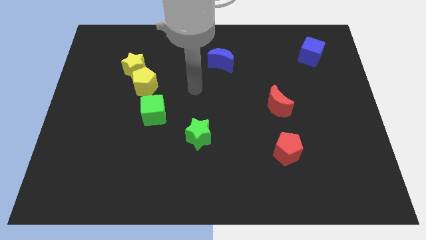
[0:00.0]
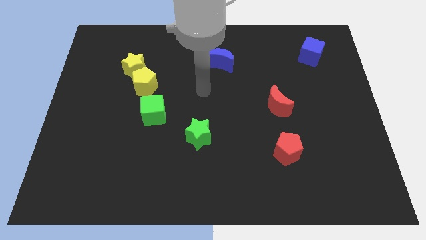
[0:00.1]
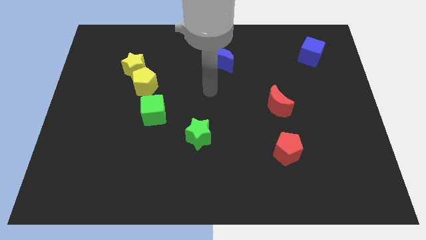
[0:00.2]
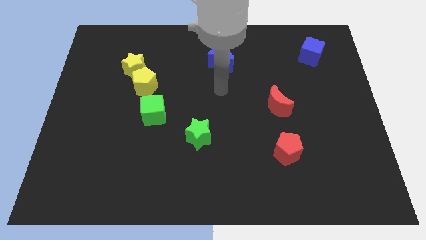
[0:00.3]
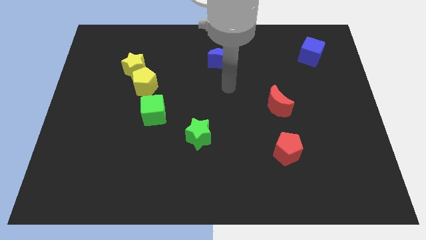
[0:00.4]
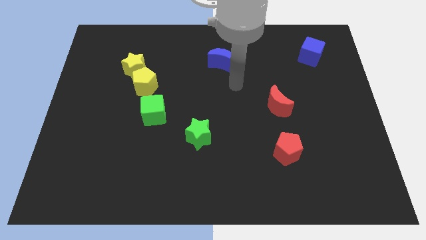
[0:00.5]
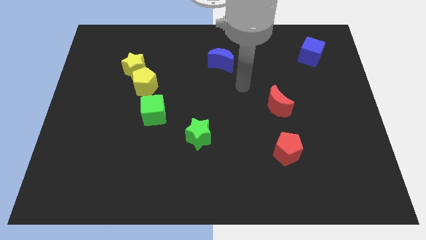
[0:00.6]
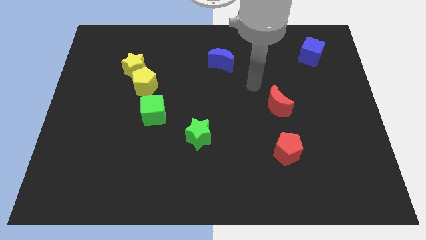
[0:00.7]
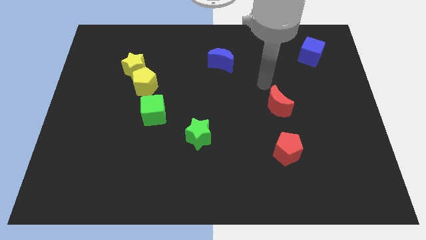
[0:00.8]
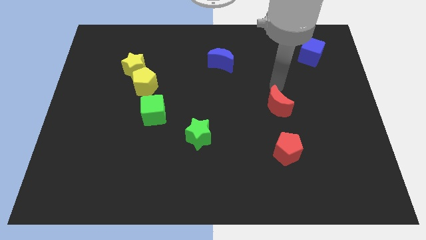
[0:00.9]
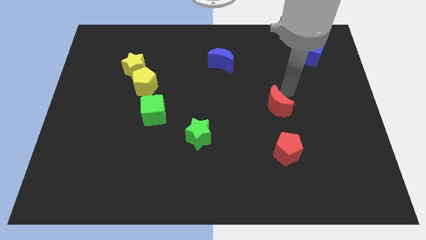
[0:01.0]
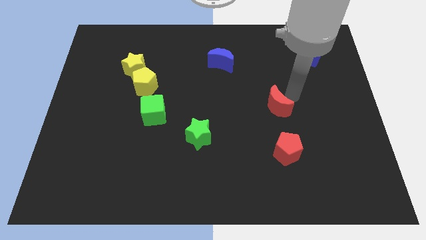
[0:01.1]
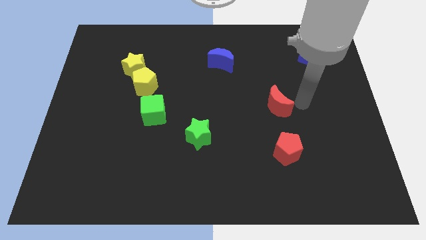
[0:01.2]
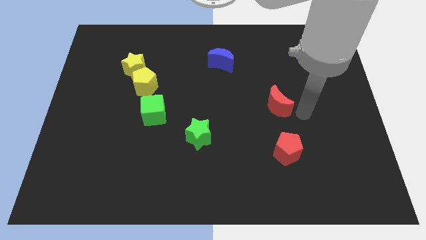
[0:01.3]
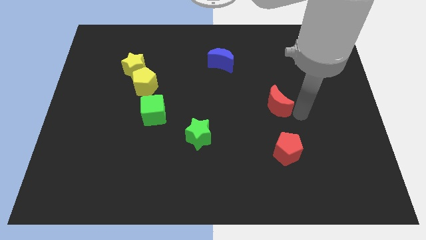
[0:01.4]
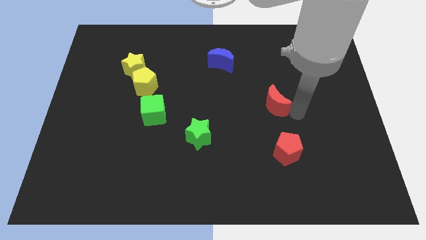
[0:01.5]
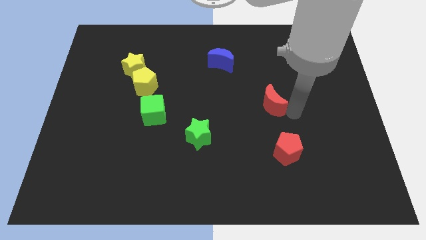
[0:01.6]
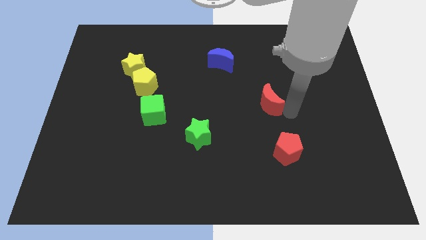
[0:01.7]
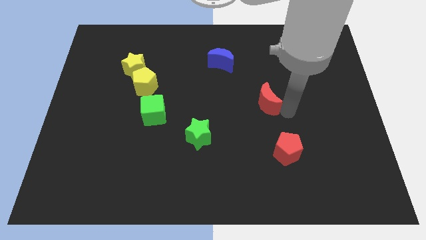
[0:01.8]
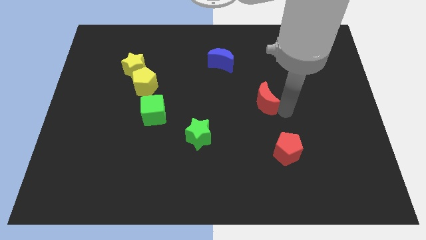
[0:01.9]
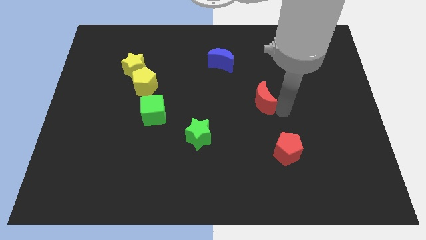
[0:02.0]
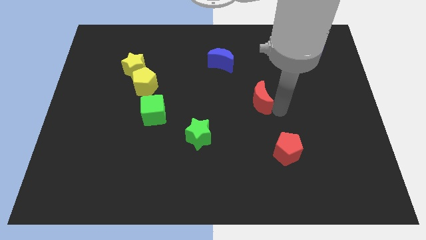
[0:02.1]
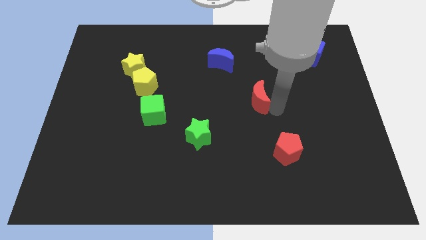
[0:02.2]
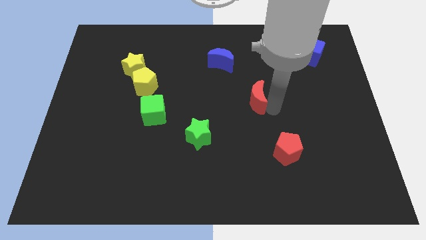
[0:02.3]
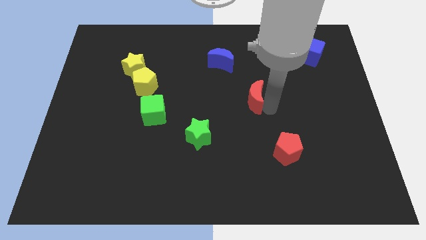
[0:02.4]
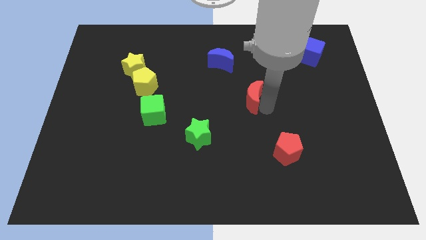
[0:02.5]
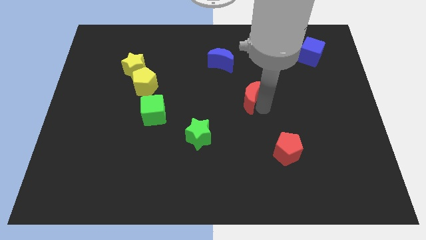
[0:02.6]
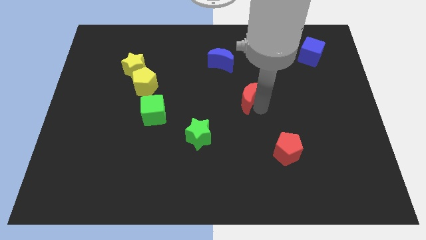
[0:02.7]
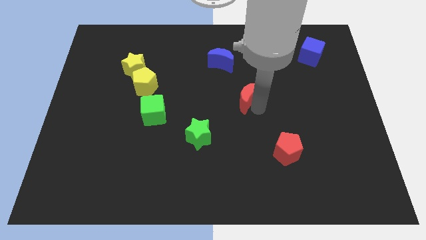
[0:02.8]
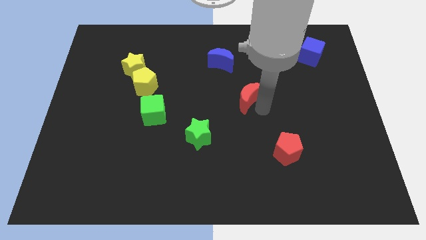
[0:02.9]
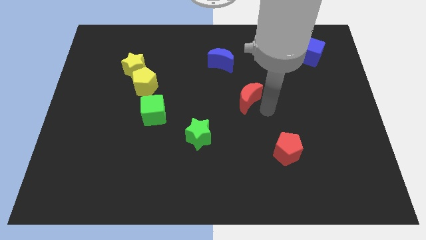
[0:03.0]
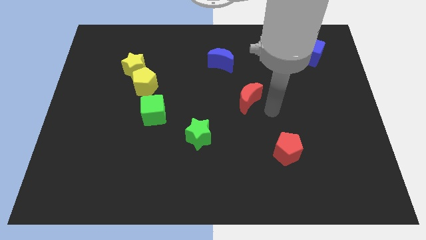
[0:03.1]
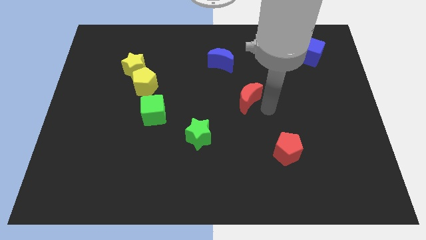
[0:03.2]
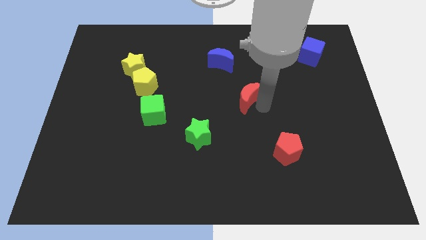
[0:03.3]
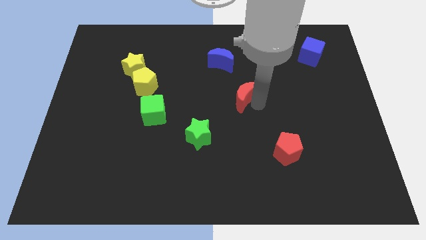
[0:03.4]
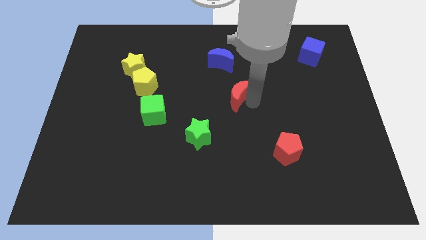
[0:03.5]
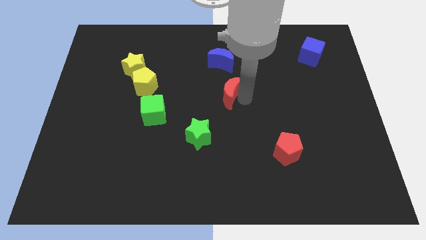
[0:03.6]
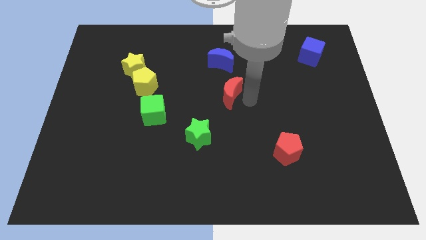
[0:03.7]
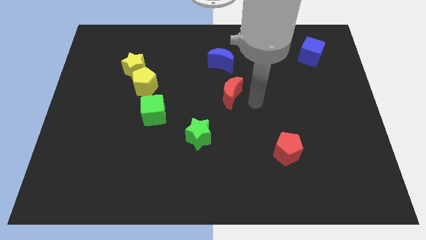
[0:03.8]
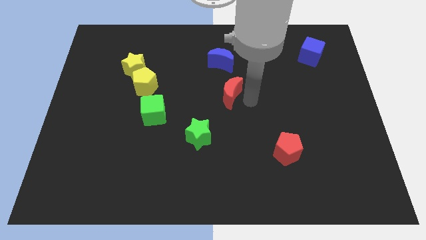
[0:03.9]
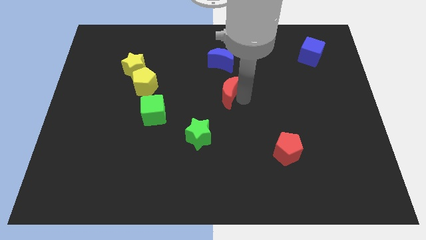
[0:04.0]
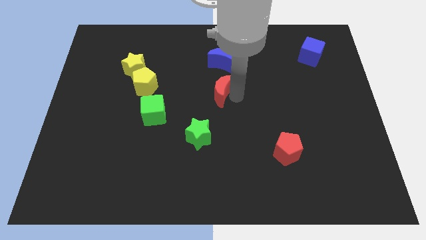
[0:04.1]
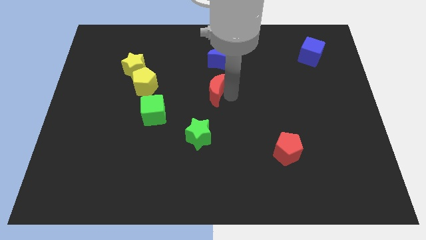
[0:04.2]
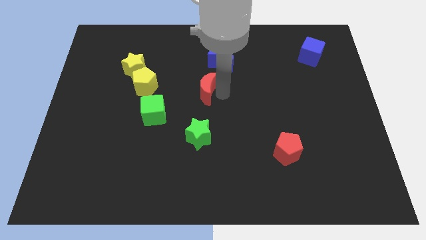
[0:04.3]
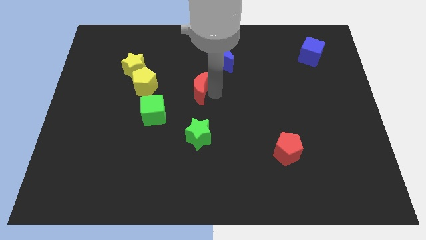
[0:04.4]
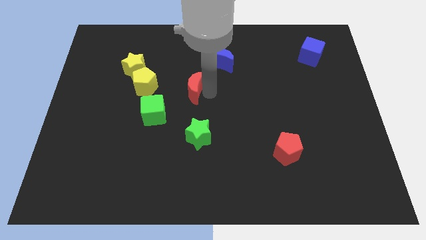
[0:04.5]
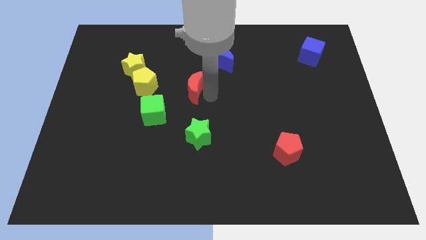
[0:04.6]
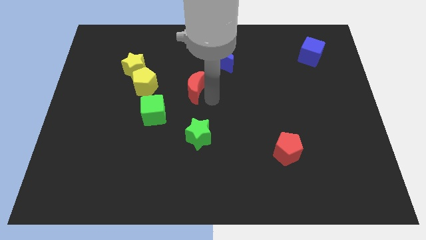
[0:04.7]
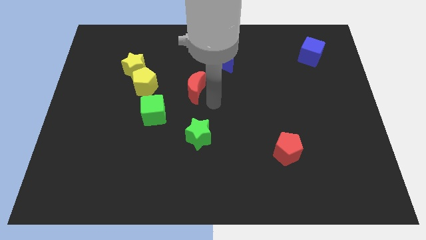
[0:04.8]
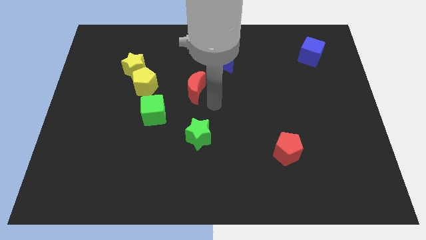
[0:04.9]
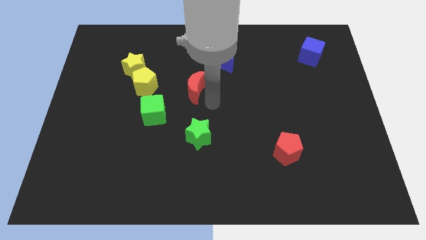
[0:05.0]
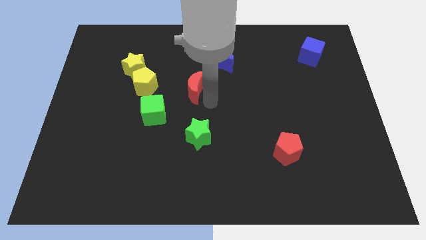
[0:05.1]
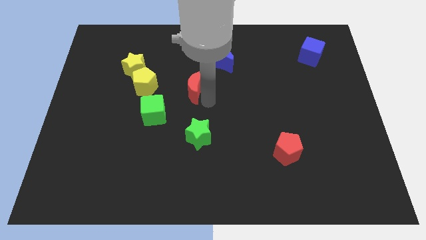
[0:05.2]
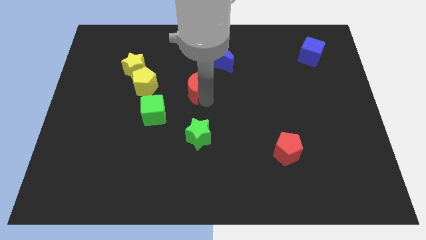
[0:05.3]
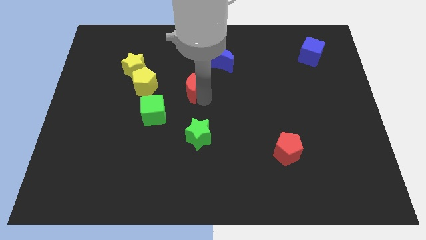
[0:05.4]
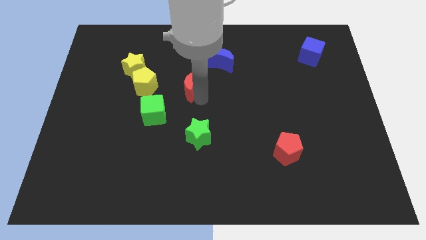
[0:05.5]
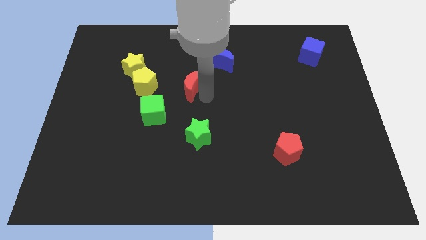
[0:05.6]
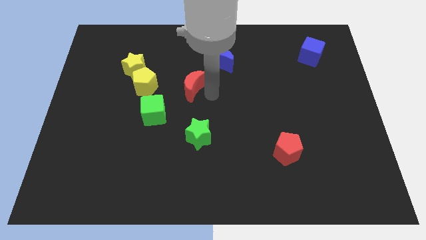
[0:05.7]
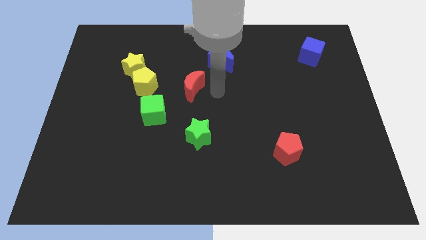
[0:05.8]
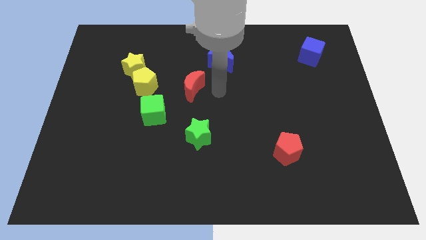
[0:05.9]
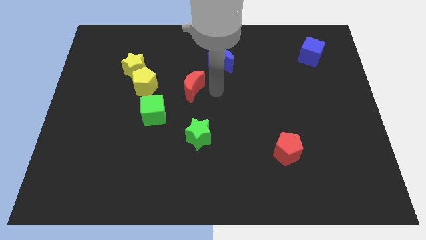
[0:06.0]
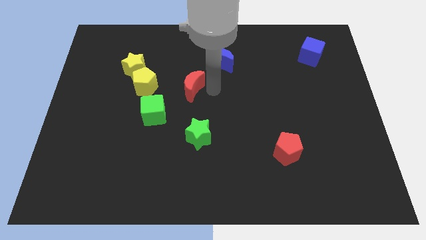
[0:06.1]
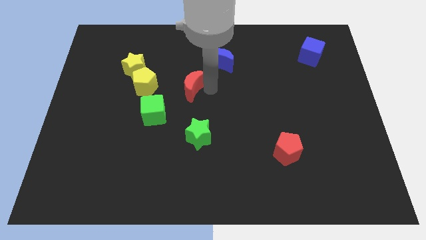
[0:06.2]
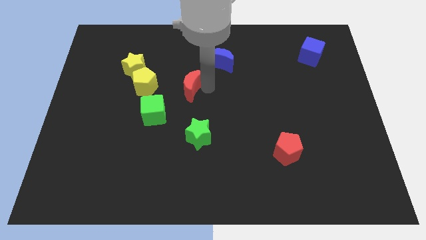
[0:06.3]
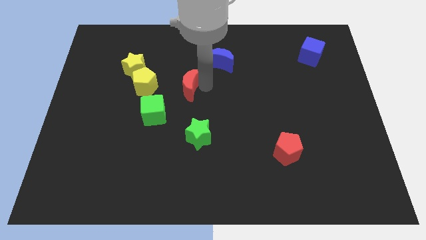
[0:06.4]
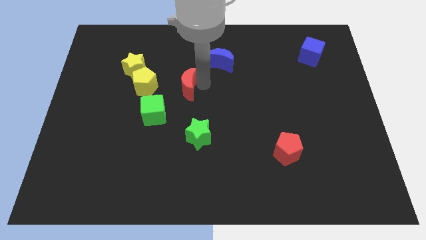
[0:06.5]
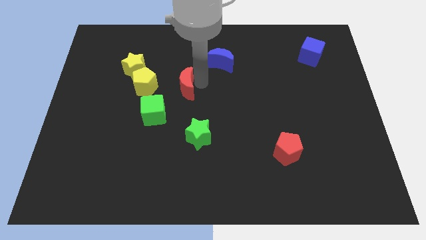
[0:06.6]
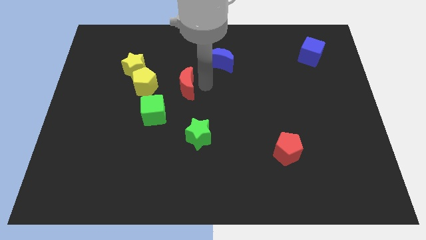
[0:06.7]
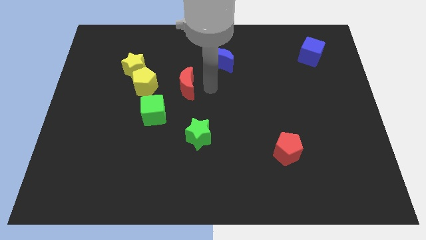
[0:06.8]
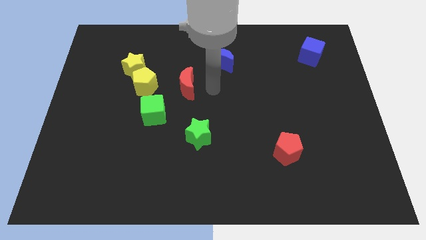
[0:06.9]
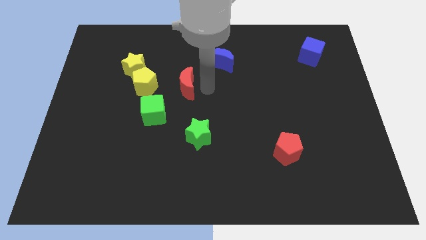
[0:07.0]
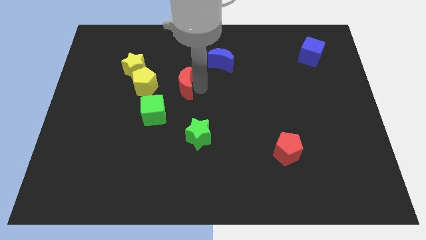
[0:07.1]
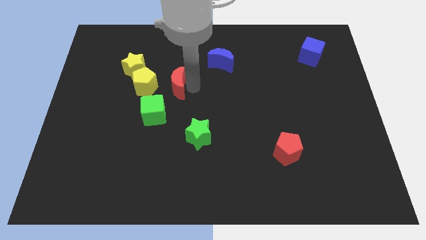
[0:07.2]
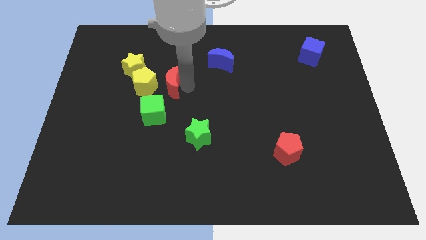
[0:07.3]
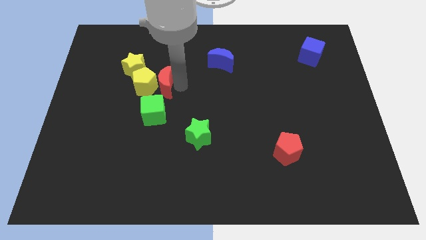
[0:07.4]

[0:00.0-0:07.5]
slide the red moon towards the yellow pentagon
